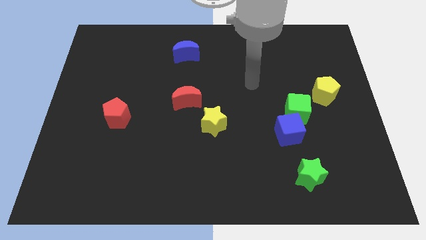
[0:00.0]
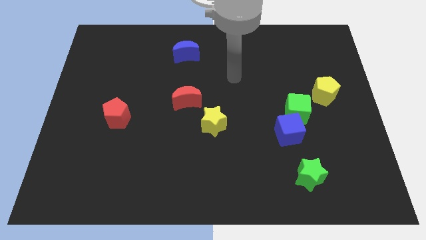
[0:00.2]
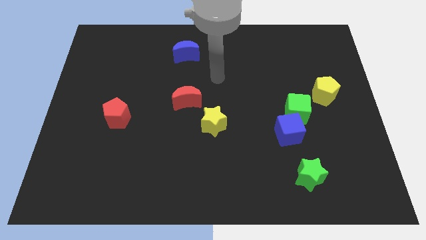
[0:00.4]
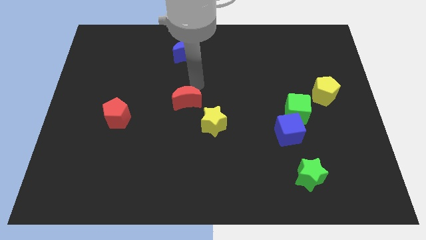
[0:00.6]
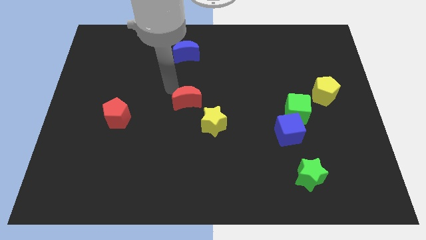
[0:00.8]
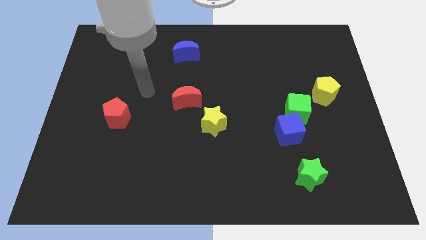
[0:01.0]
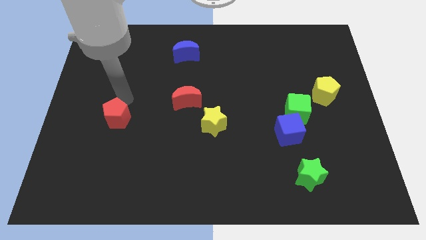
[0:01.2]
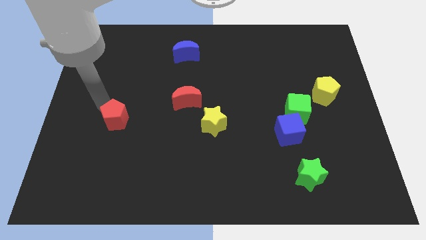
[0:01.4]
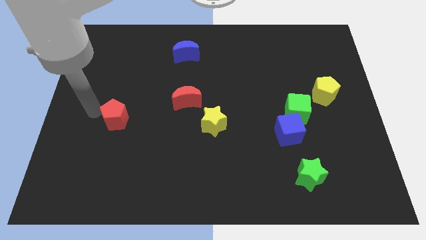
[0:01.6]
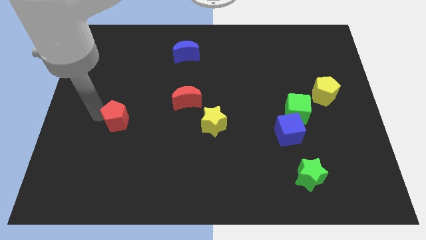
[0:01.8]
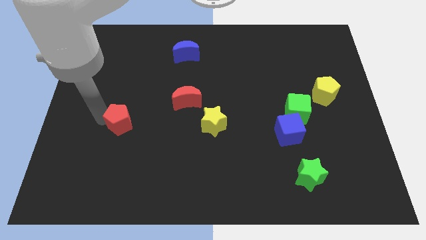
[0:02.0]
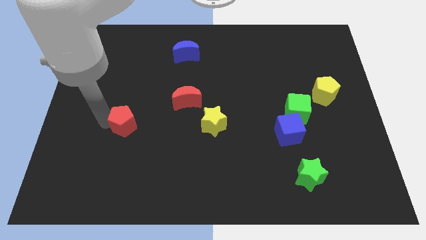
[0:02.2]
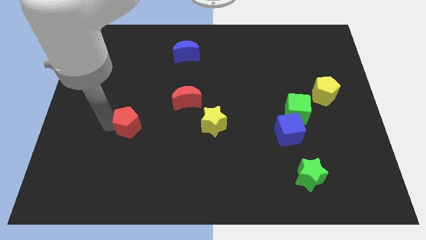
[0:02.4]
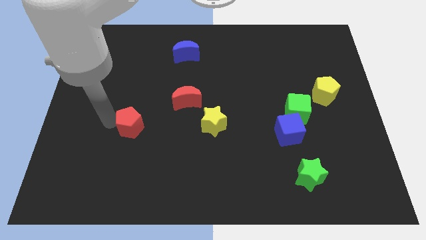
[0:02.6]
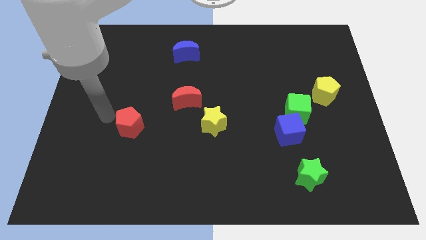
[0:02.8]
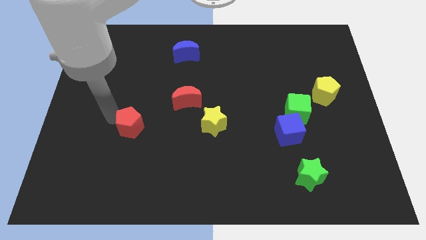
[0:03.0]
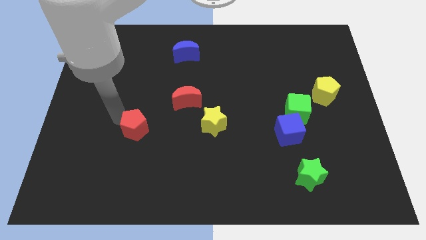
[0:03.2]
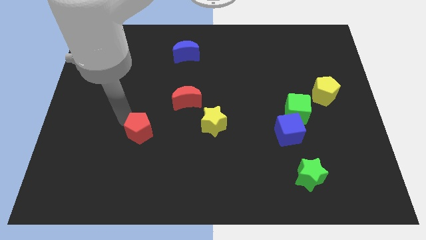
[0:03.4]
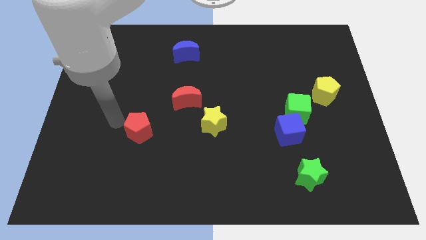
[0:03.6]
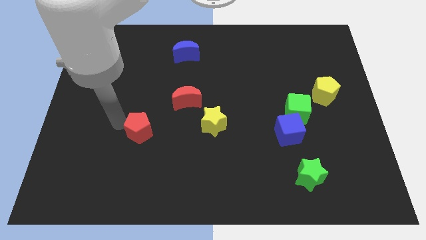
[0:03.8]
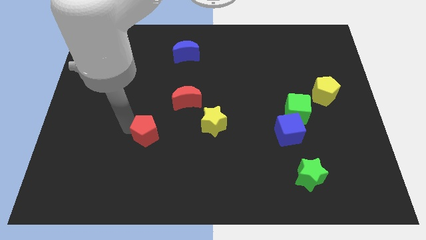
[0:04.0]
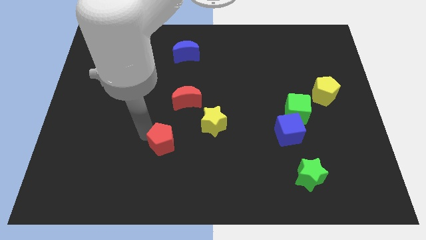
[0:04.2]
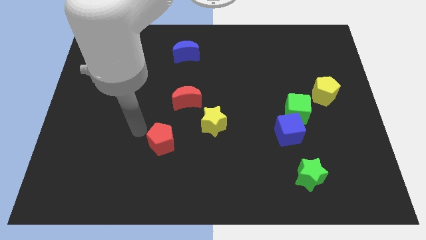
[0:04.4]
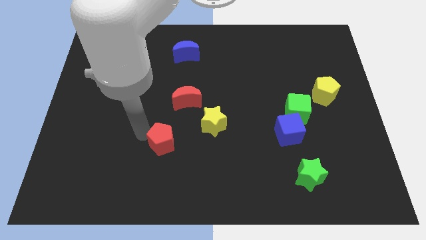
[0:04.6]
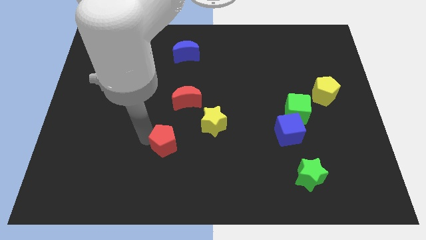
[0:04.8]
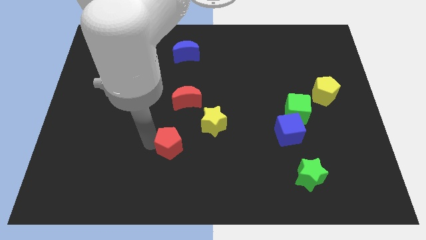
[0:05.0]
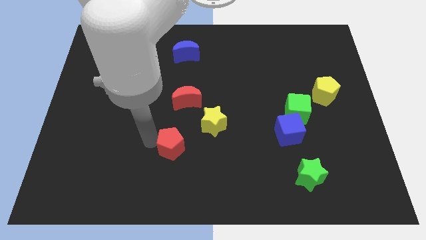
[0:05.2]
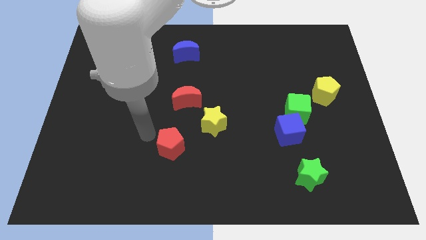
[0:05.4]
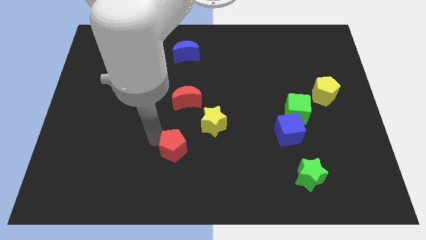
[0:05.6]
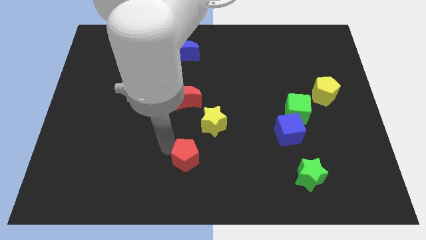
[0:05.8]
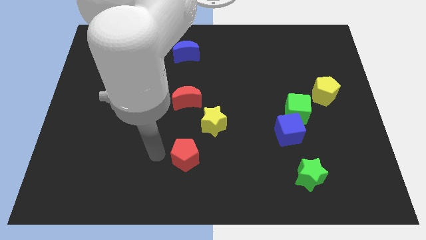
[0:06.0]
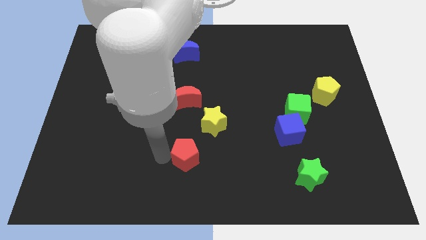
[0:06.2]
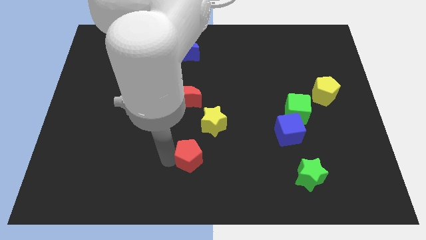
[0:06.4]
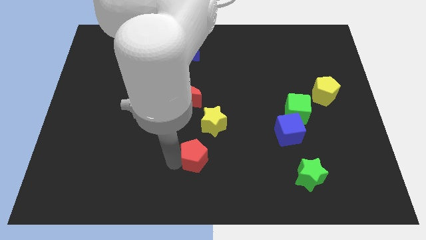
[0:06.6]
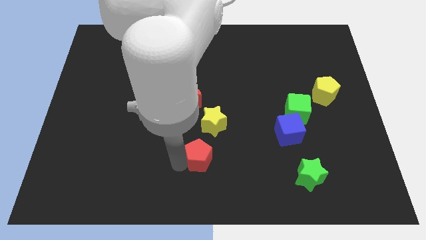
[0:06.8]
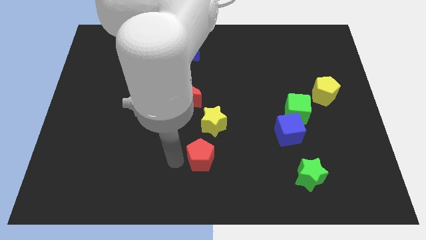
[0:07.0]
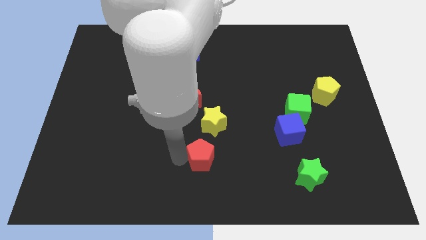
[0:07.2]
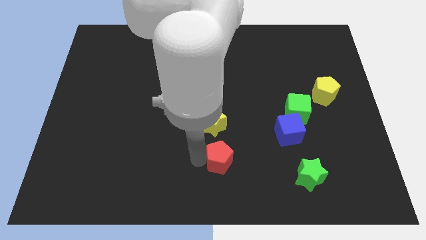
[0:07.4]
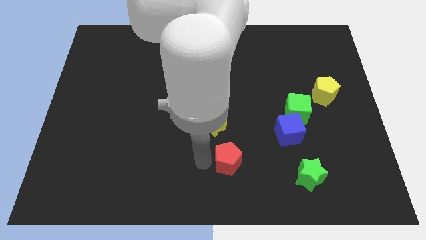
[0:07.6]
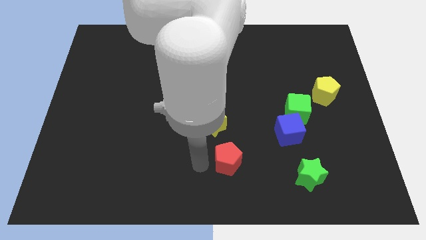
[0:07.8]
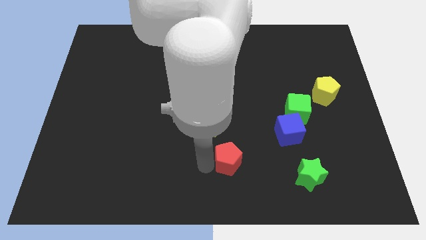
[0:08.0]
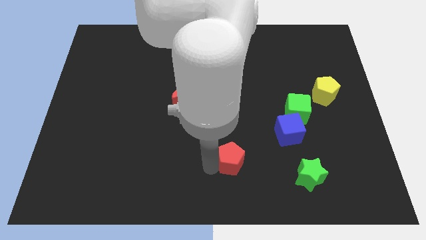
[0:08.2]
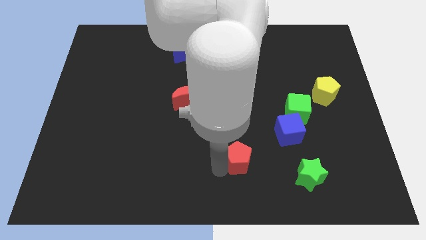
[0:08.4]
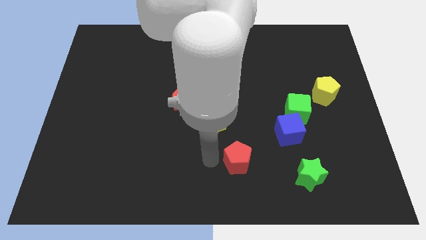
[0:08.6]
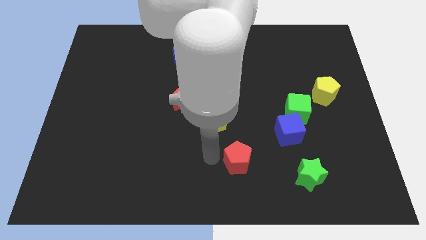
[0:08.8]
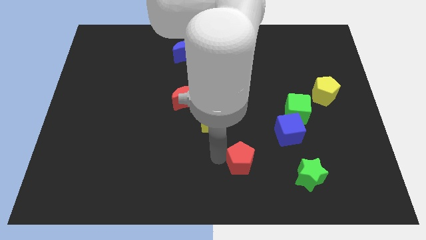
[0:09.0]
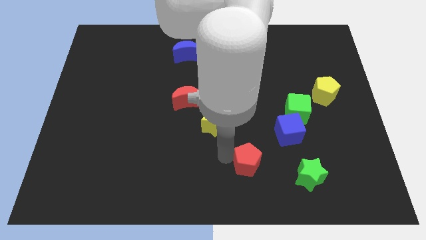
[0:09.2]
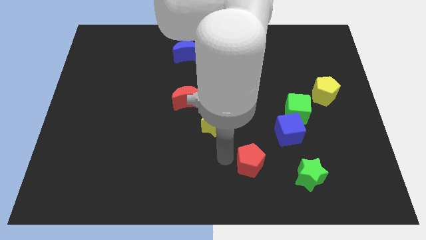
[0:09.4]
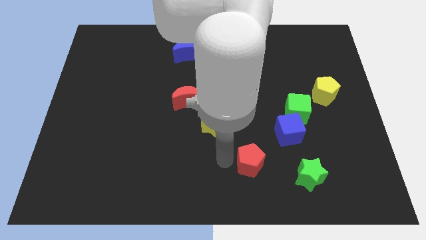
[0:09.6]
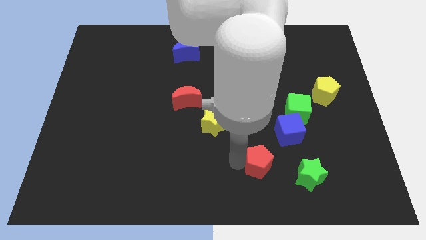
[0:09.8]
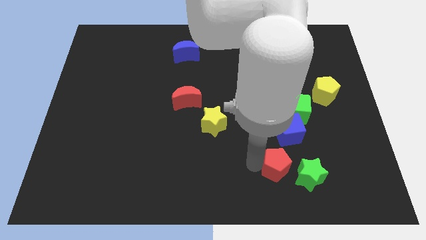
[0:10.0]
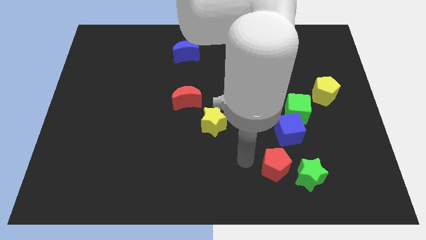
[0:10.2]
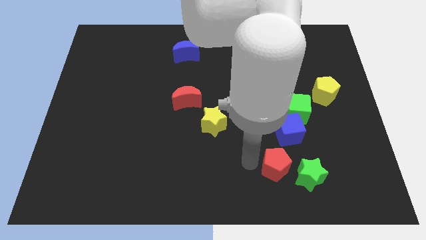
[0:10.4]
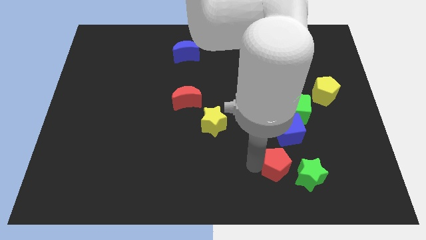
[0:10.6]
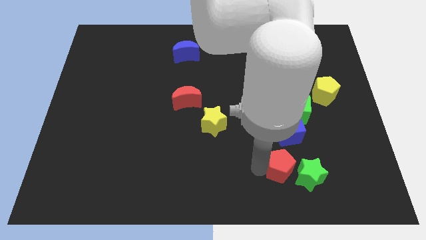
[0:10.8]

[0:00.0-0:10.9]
push the red pentagon close to the green star
